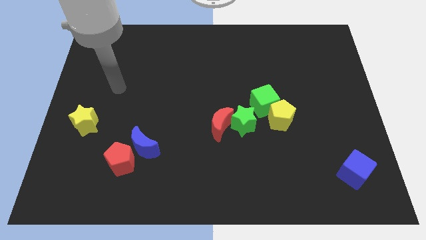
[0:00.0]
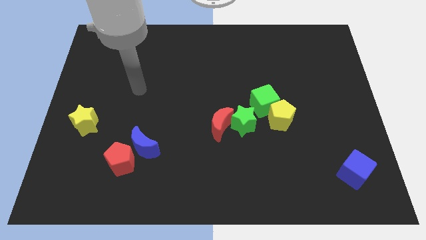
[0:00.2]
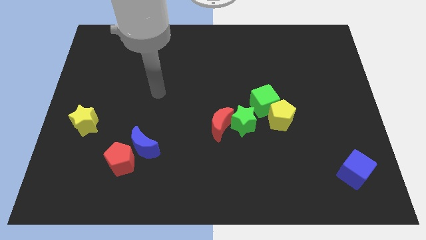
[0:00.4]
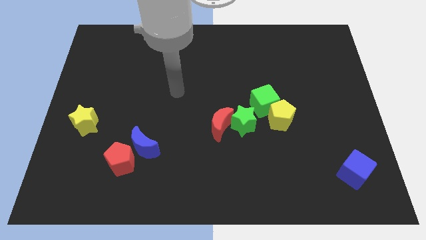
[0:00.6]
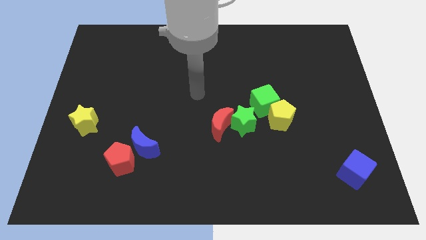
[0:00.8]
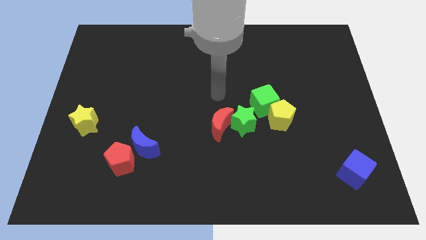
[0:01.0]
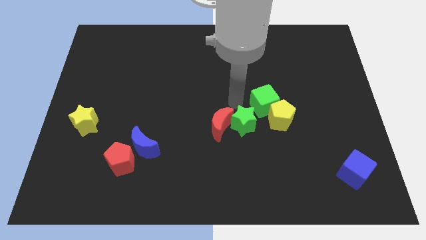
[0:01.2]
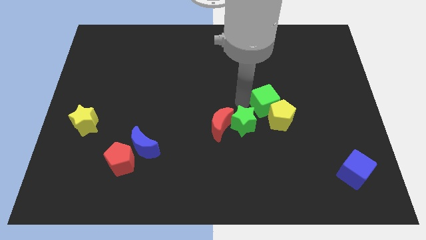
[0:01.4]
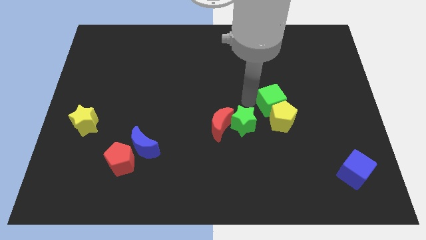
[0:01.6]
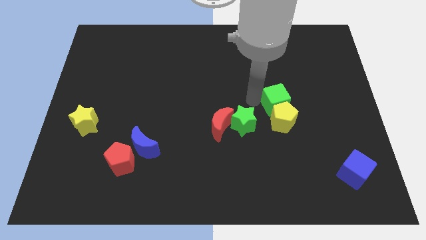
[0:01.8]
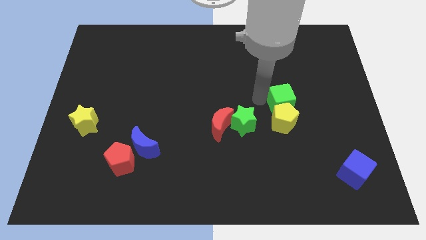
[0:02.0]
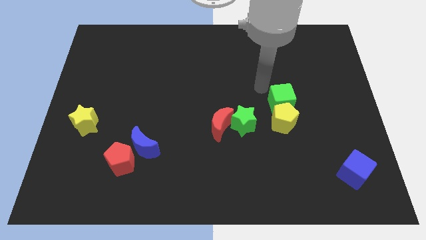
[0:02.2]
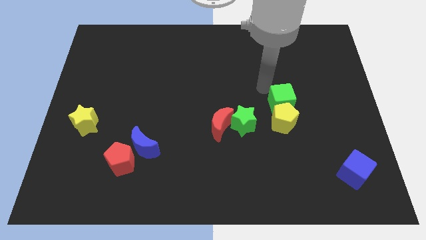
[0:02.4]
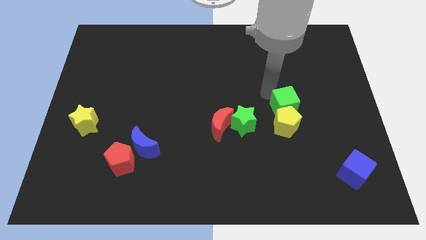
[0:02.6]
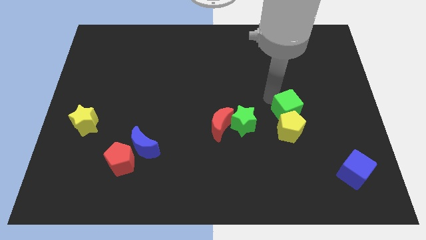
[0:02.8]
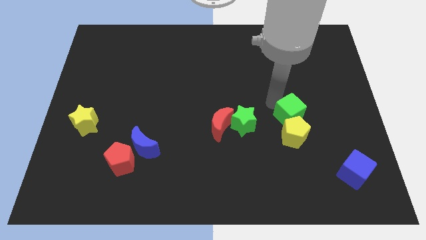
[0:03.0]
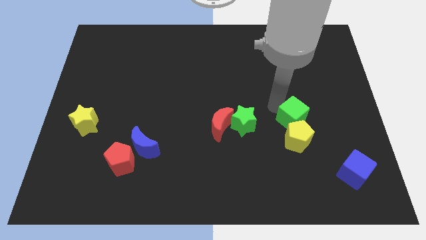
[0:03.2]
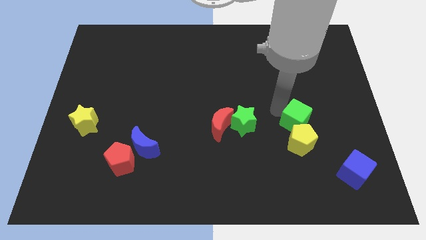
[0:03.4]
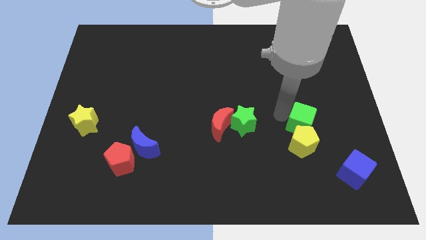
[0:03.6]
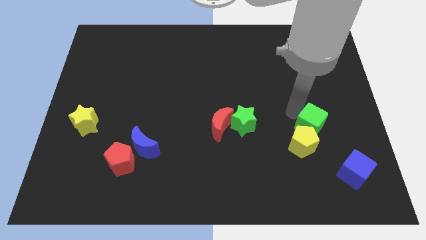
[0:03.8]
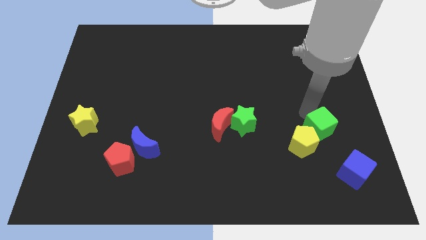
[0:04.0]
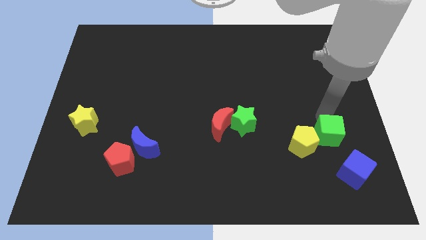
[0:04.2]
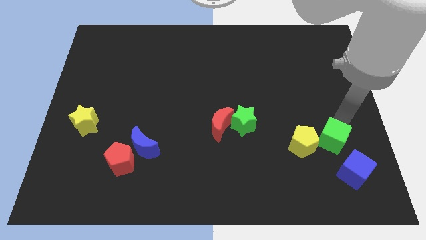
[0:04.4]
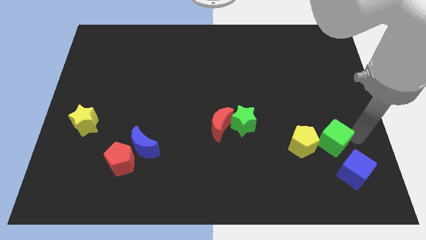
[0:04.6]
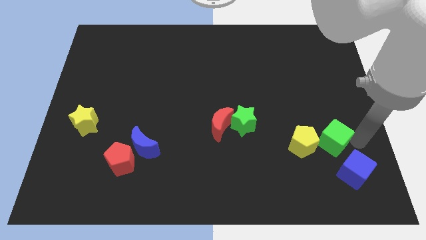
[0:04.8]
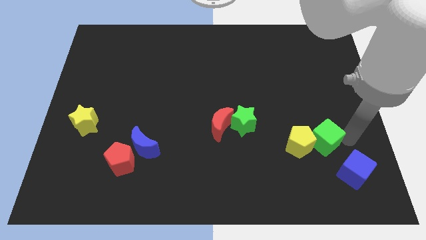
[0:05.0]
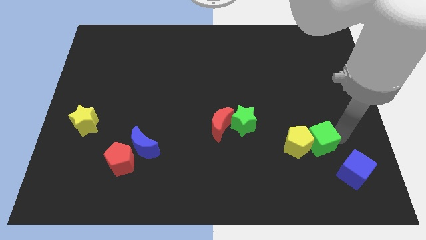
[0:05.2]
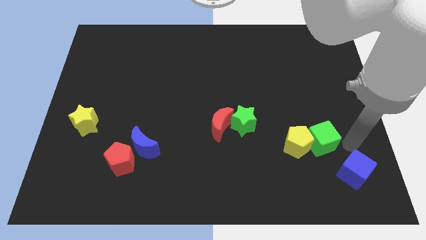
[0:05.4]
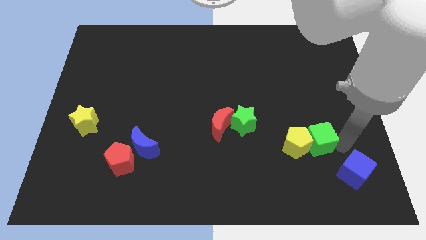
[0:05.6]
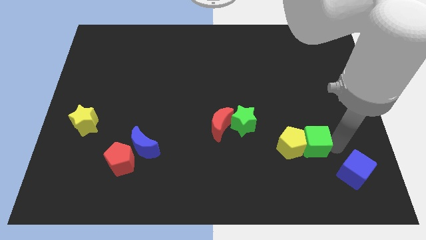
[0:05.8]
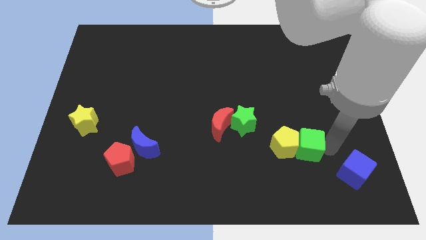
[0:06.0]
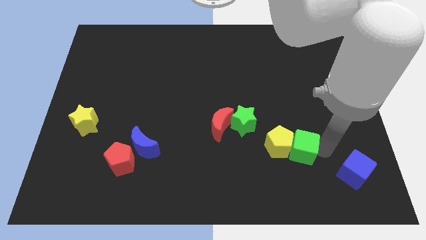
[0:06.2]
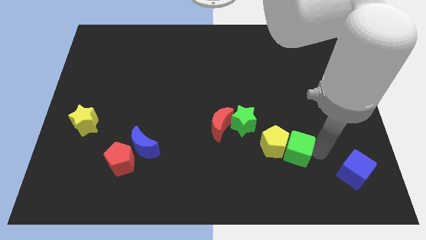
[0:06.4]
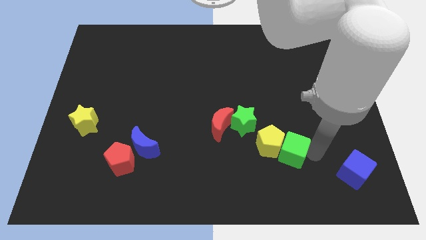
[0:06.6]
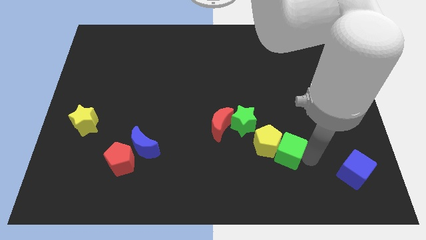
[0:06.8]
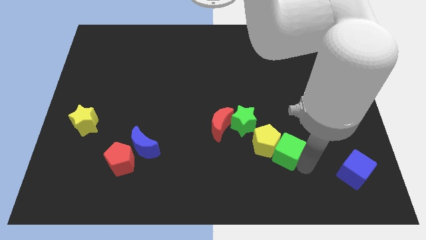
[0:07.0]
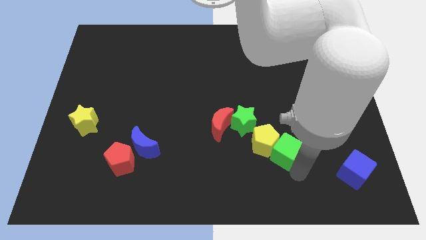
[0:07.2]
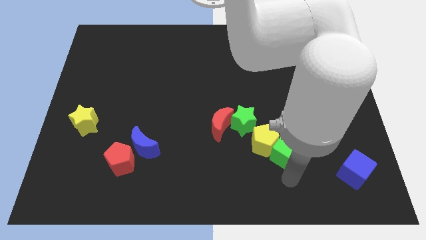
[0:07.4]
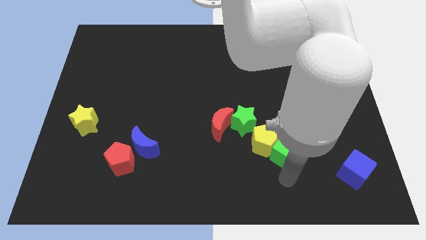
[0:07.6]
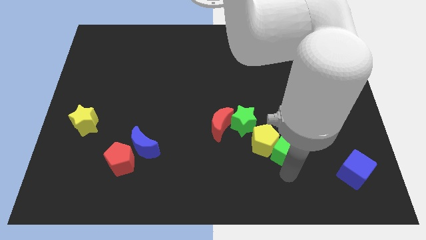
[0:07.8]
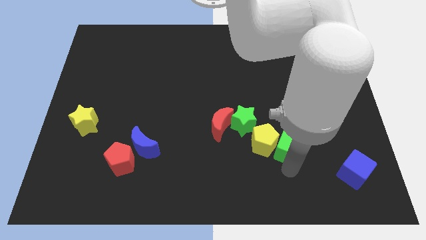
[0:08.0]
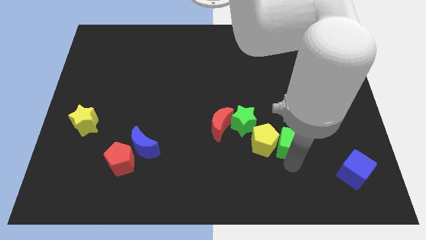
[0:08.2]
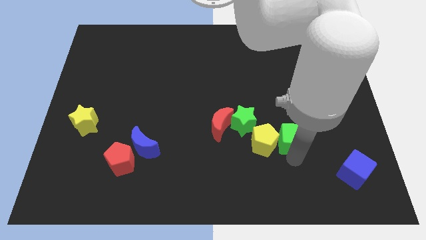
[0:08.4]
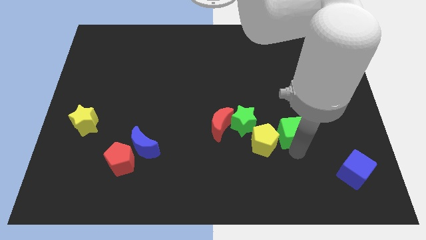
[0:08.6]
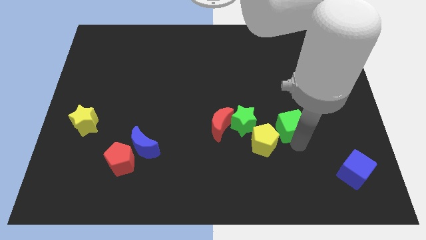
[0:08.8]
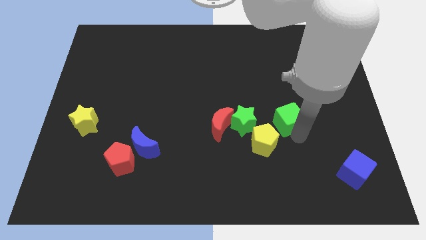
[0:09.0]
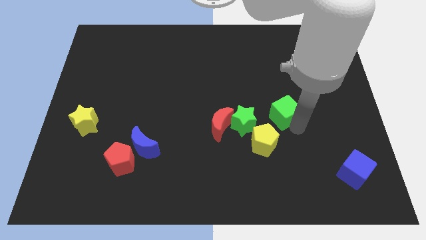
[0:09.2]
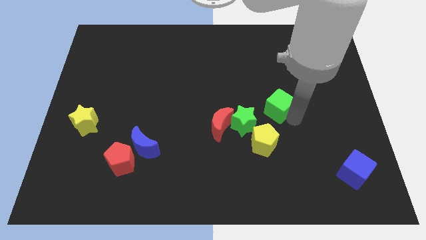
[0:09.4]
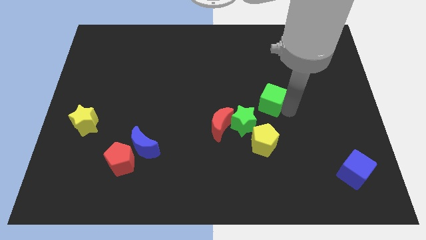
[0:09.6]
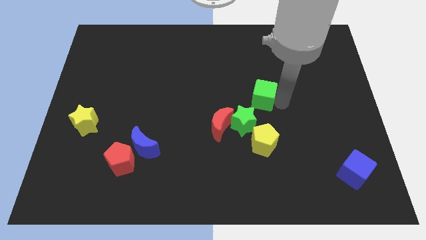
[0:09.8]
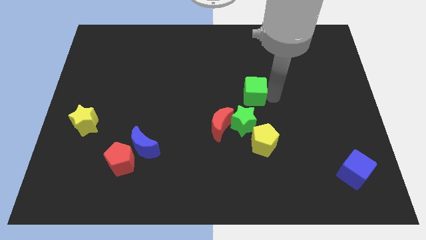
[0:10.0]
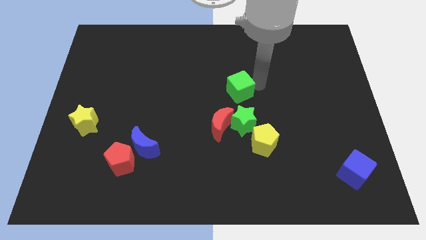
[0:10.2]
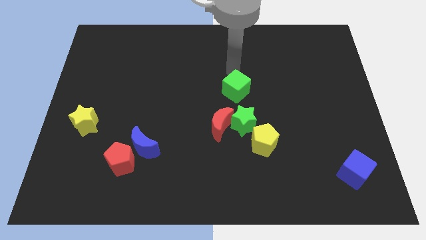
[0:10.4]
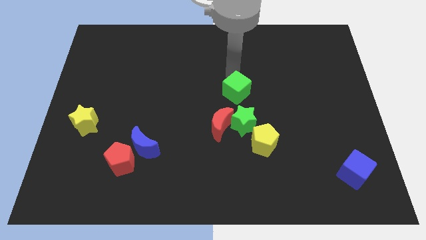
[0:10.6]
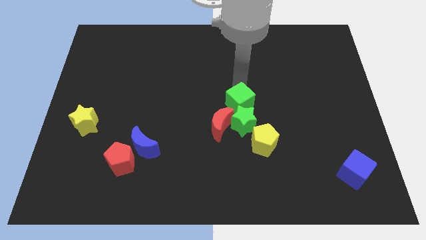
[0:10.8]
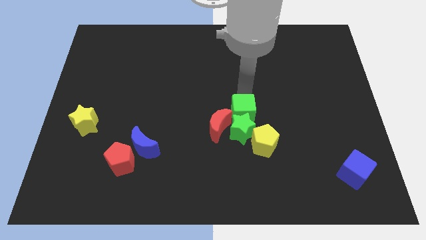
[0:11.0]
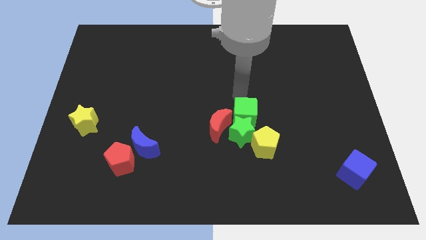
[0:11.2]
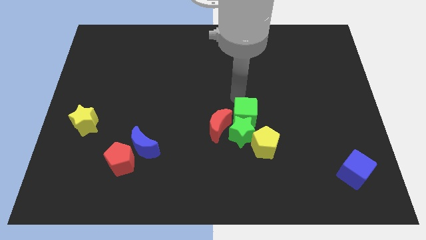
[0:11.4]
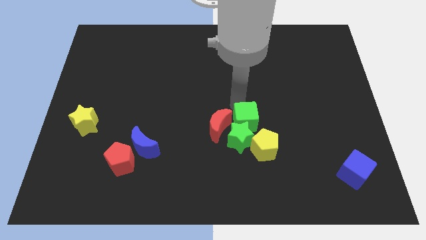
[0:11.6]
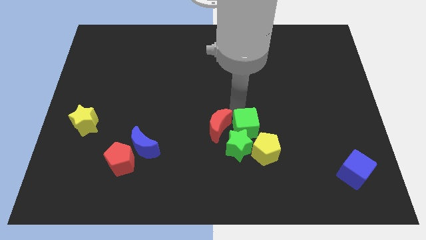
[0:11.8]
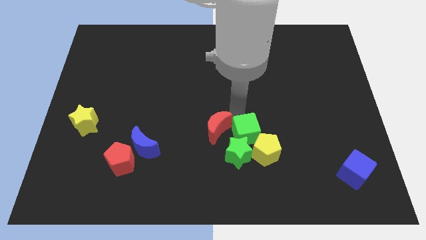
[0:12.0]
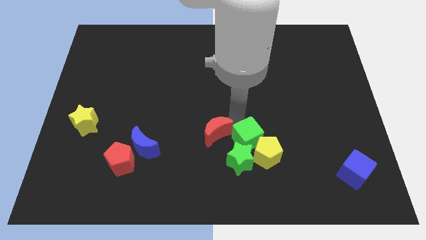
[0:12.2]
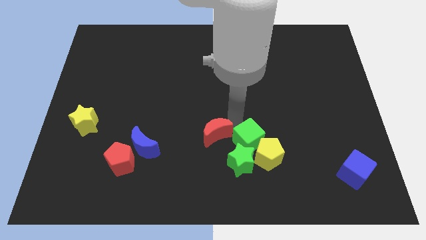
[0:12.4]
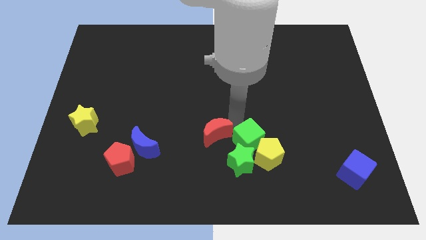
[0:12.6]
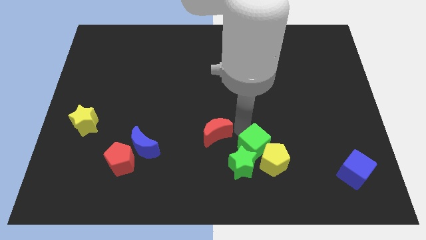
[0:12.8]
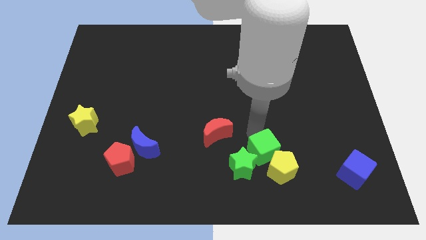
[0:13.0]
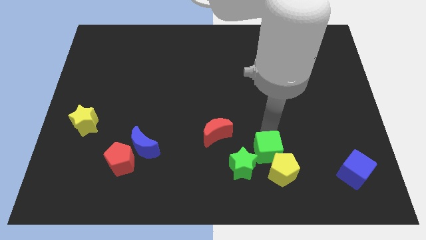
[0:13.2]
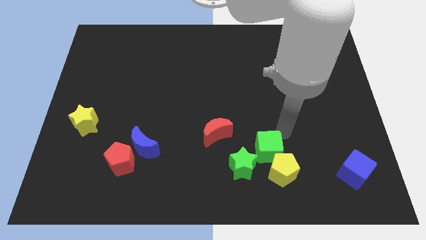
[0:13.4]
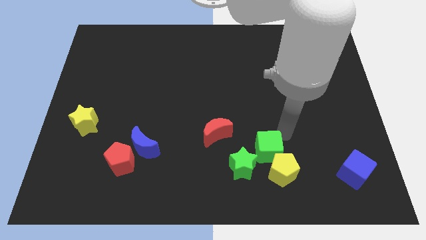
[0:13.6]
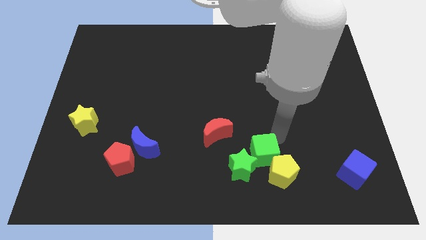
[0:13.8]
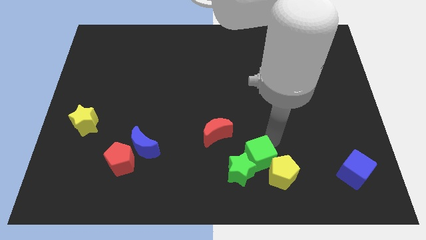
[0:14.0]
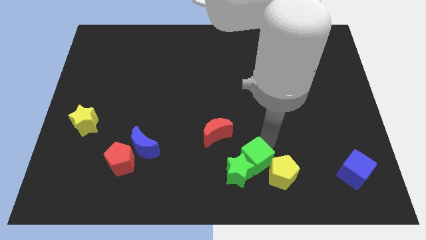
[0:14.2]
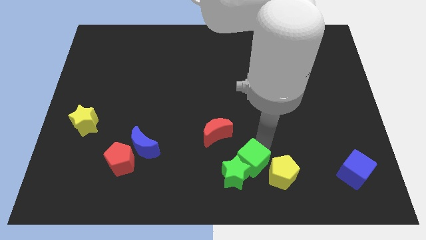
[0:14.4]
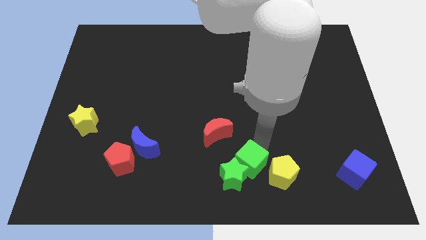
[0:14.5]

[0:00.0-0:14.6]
move the green cube to the bottom side
